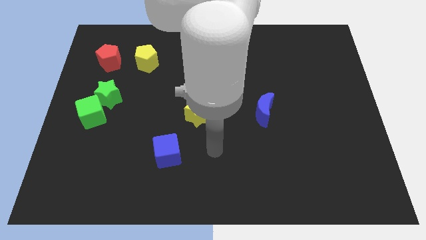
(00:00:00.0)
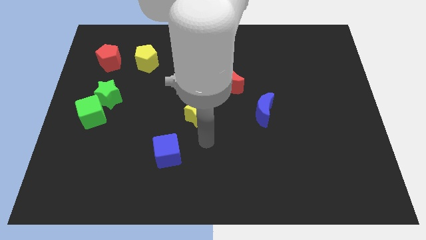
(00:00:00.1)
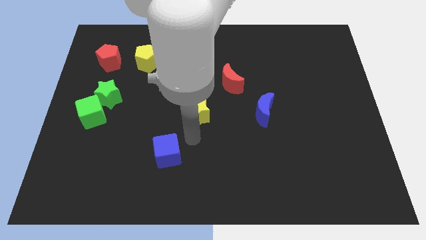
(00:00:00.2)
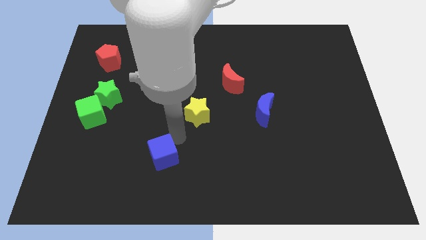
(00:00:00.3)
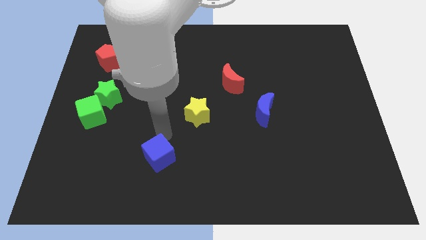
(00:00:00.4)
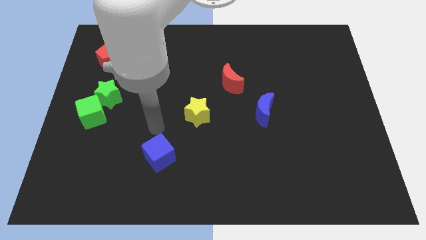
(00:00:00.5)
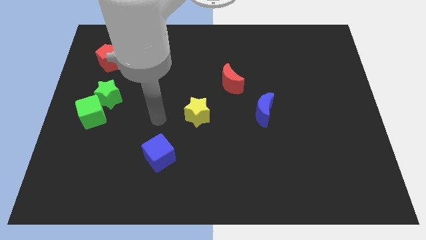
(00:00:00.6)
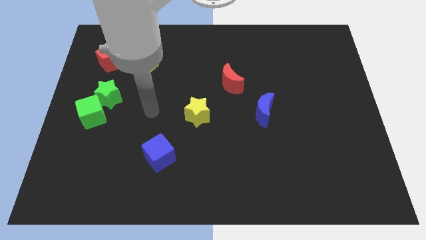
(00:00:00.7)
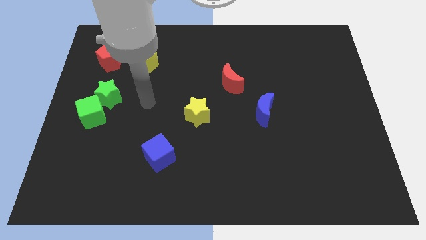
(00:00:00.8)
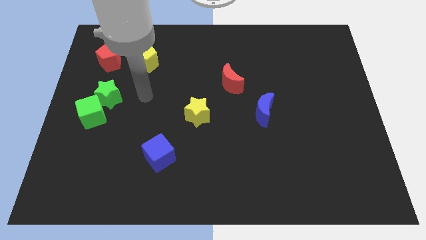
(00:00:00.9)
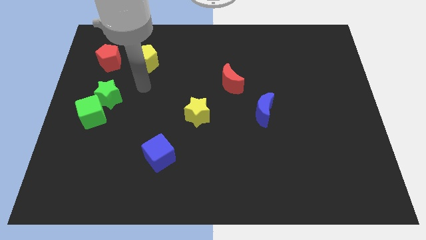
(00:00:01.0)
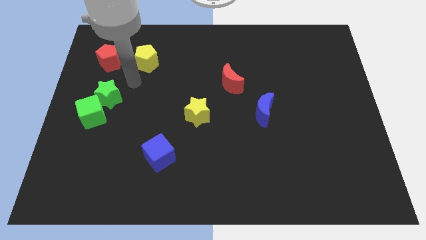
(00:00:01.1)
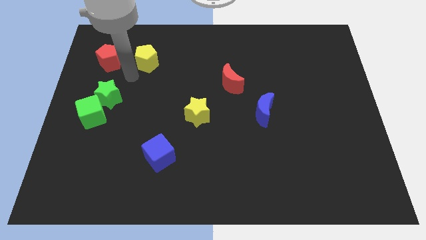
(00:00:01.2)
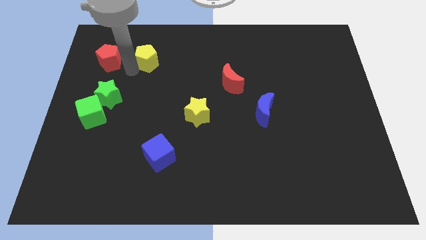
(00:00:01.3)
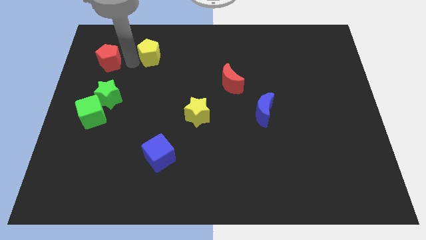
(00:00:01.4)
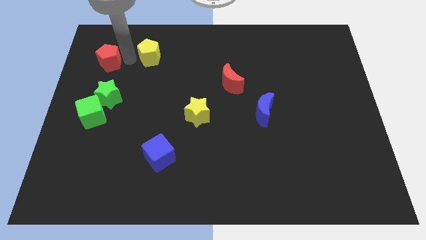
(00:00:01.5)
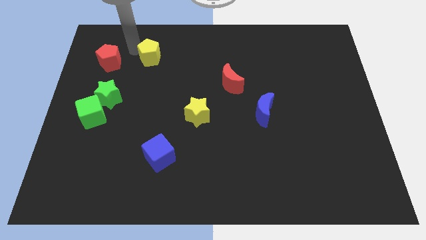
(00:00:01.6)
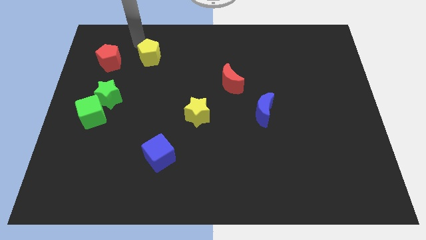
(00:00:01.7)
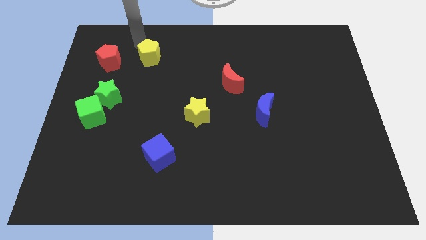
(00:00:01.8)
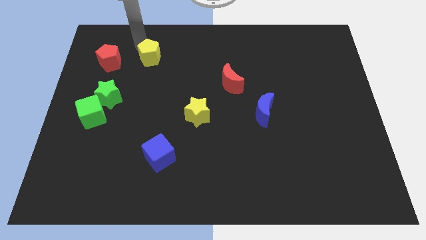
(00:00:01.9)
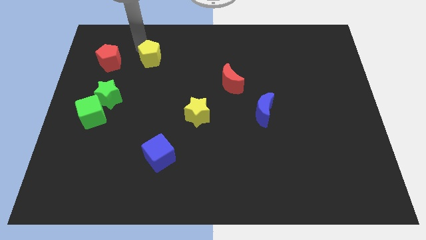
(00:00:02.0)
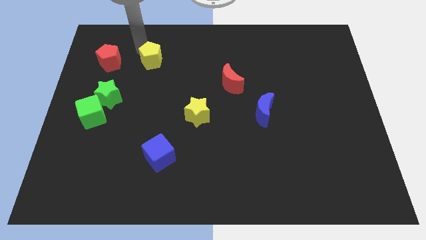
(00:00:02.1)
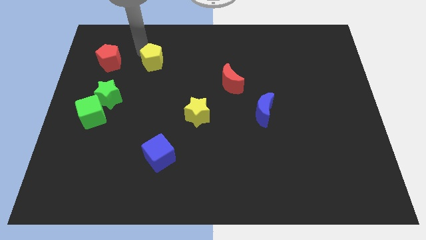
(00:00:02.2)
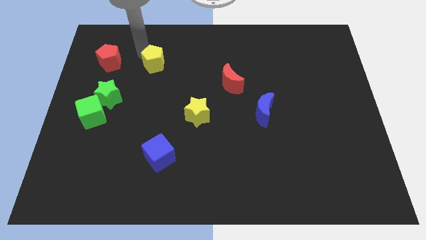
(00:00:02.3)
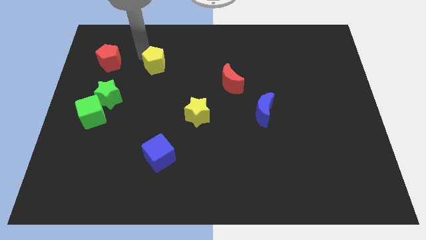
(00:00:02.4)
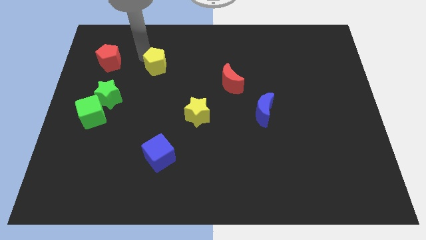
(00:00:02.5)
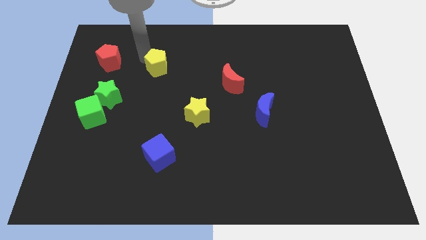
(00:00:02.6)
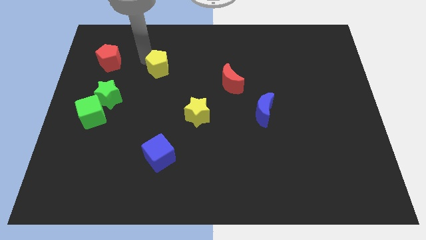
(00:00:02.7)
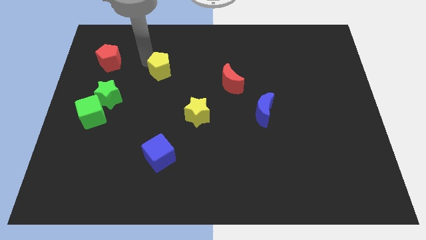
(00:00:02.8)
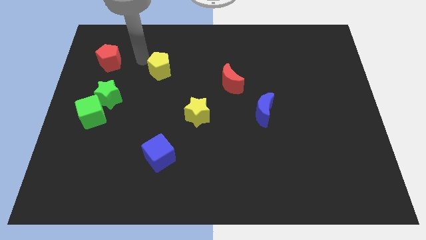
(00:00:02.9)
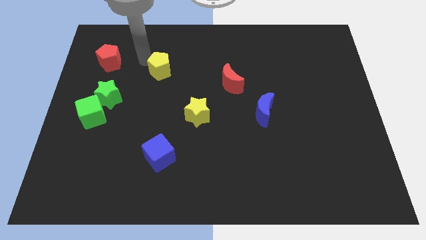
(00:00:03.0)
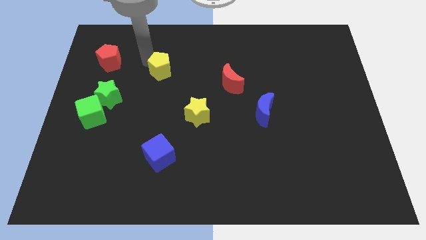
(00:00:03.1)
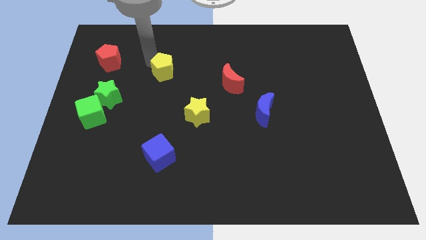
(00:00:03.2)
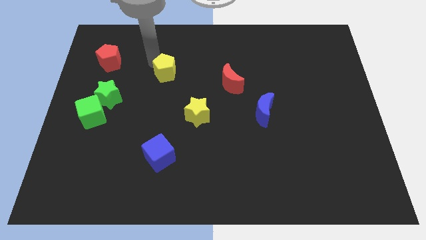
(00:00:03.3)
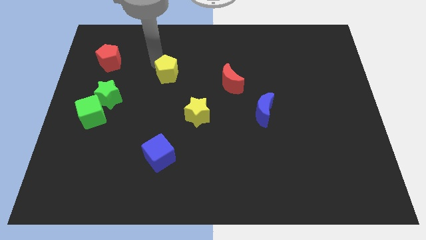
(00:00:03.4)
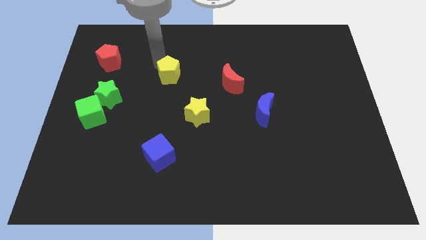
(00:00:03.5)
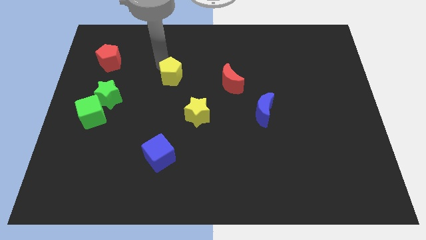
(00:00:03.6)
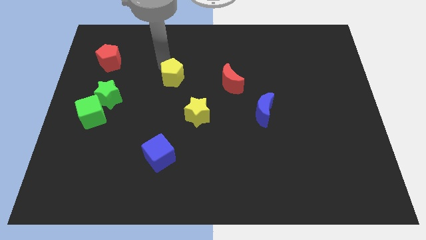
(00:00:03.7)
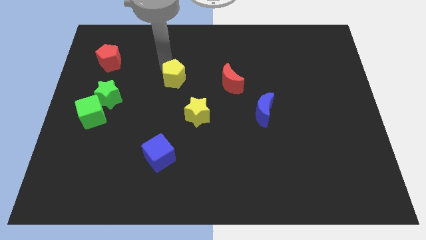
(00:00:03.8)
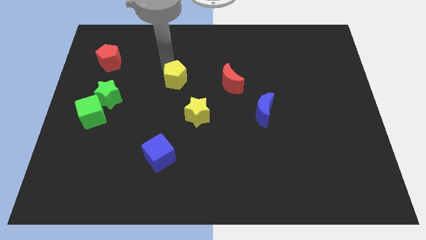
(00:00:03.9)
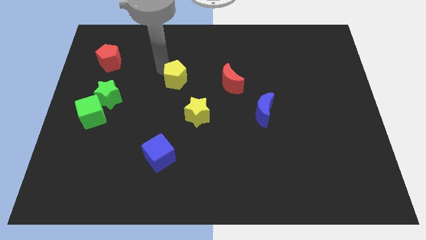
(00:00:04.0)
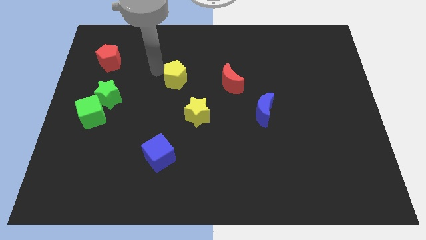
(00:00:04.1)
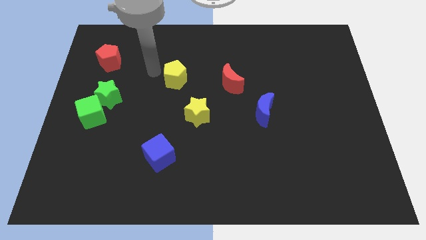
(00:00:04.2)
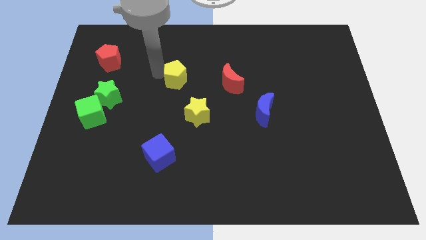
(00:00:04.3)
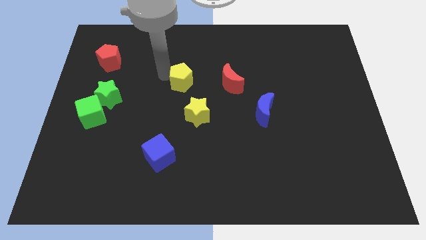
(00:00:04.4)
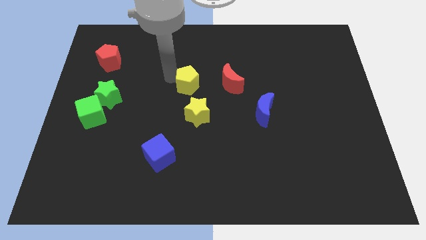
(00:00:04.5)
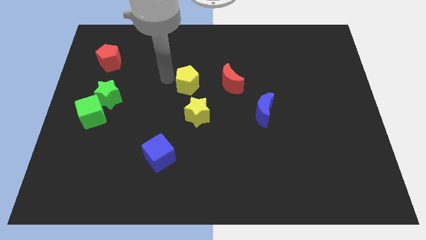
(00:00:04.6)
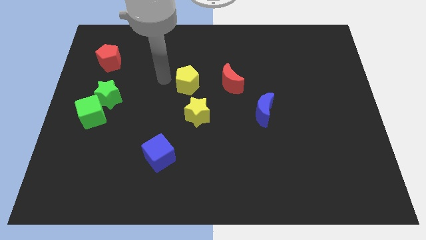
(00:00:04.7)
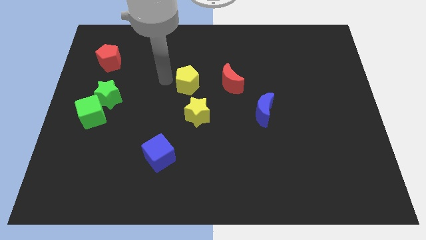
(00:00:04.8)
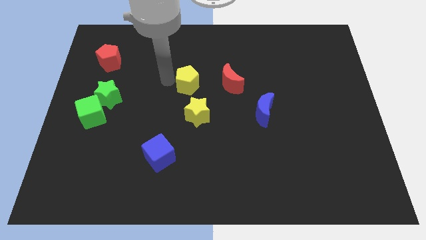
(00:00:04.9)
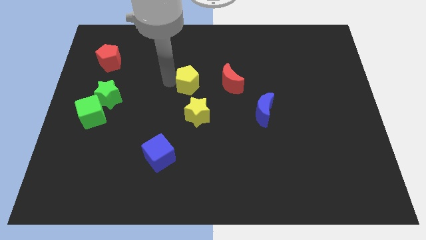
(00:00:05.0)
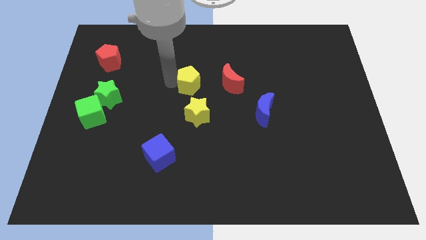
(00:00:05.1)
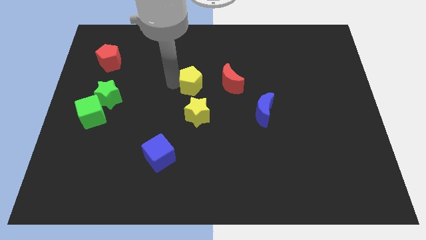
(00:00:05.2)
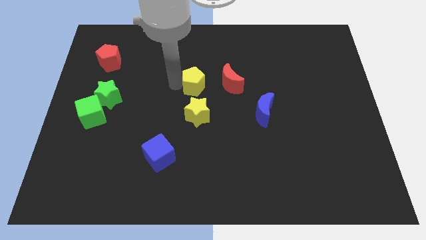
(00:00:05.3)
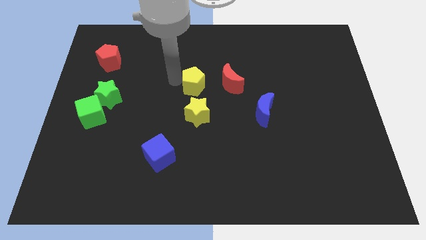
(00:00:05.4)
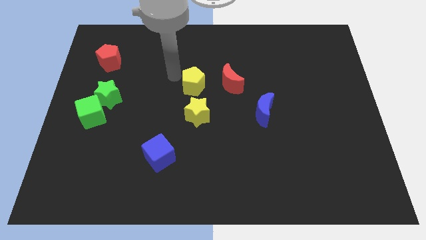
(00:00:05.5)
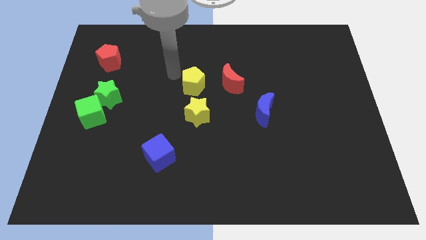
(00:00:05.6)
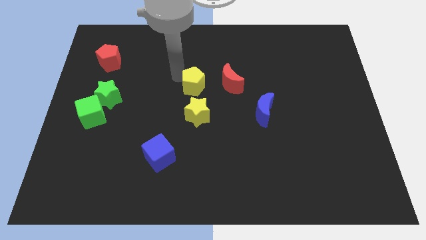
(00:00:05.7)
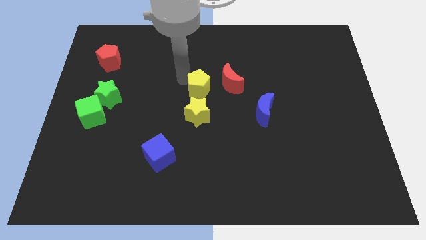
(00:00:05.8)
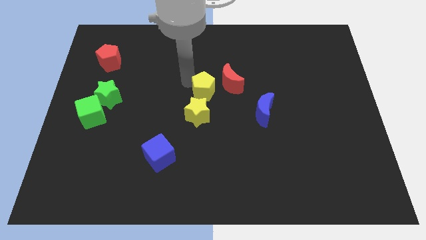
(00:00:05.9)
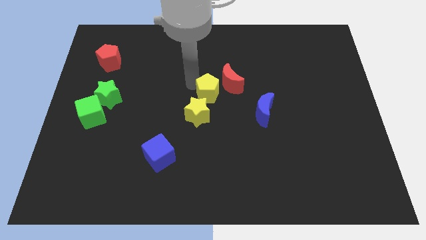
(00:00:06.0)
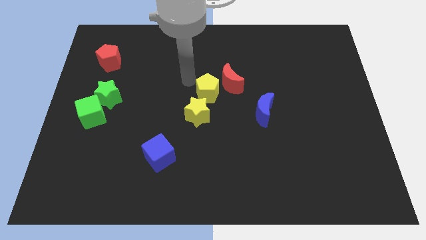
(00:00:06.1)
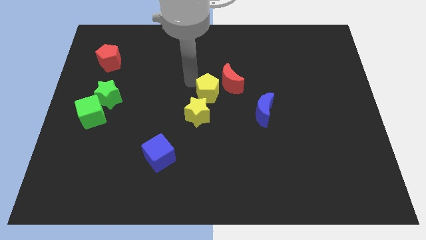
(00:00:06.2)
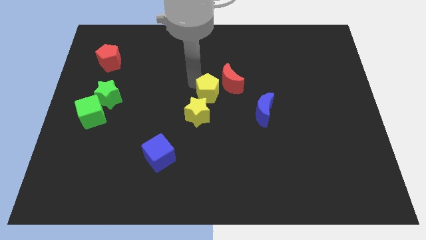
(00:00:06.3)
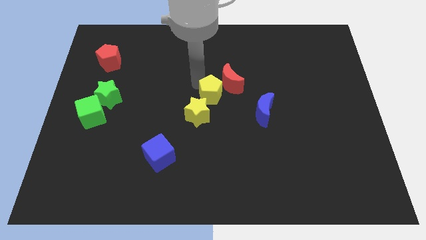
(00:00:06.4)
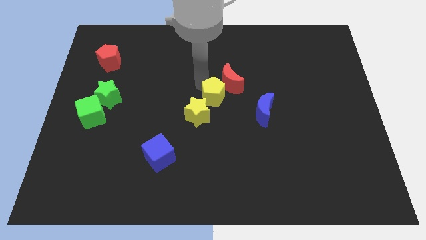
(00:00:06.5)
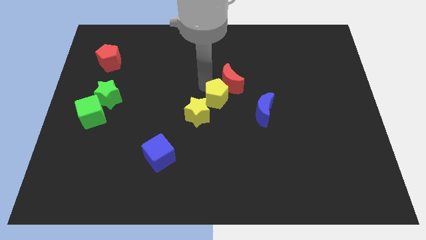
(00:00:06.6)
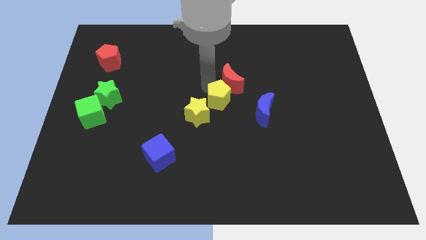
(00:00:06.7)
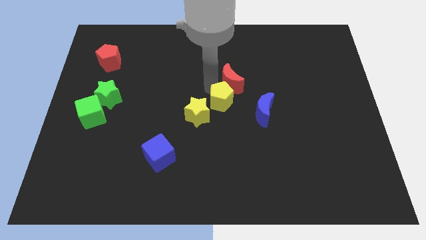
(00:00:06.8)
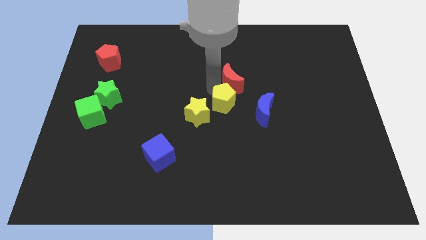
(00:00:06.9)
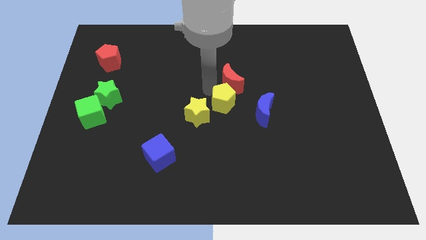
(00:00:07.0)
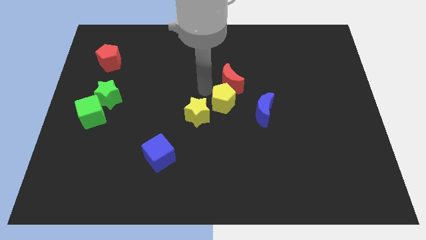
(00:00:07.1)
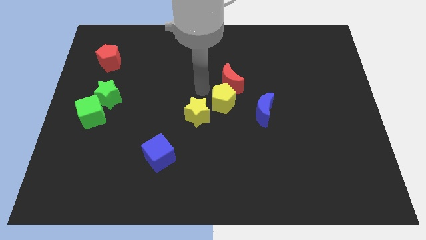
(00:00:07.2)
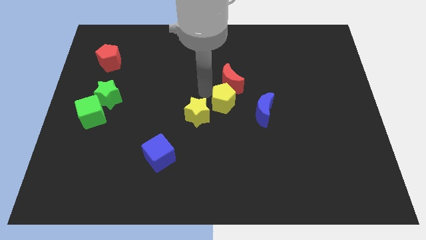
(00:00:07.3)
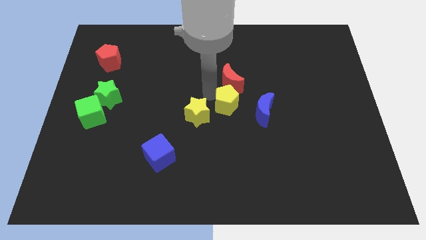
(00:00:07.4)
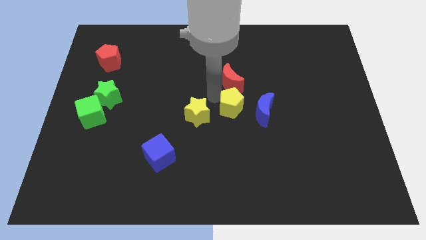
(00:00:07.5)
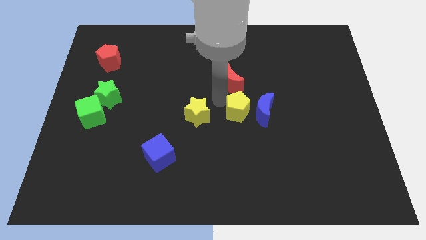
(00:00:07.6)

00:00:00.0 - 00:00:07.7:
slide the yellow pentagon towards the blue moon
